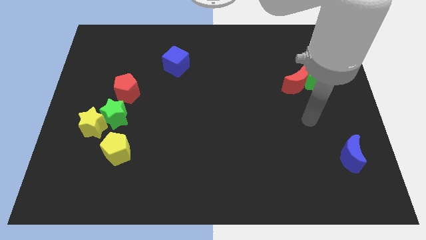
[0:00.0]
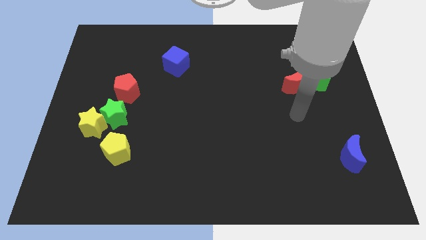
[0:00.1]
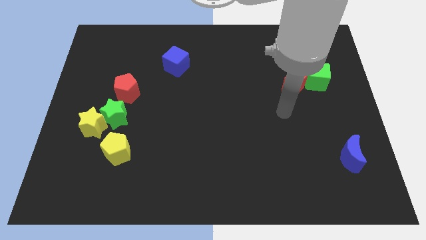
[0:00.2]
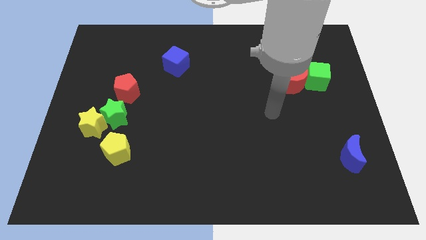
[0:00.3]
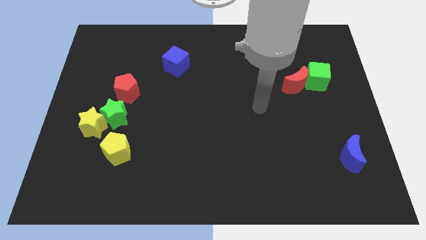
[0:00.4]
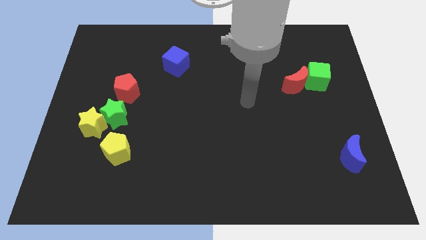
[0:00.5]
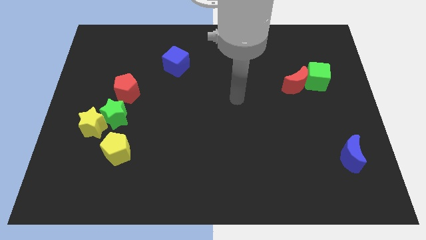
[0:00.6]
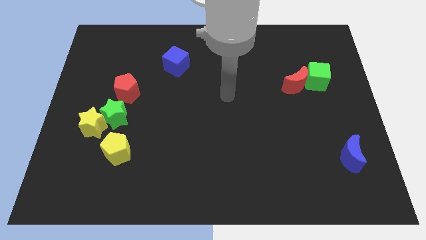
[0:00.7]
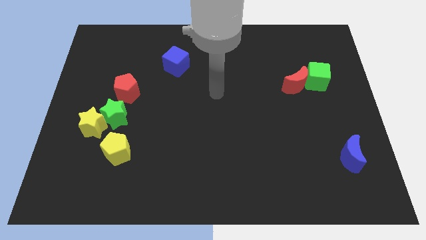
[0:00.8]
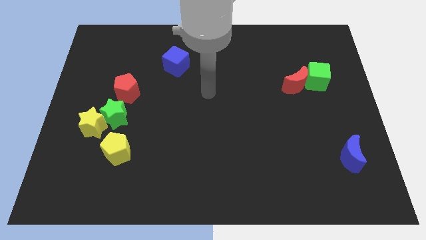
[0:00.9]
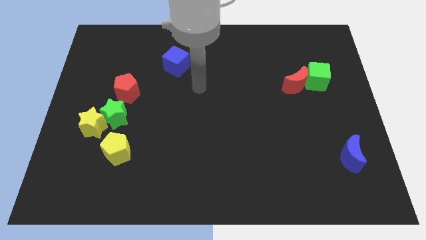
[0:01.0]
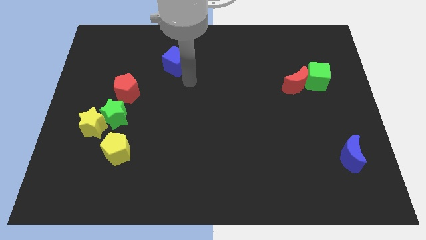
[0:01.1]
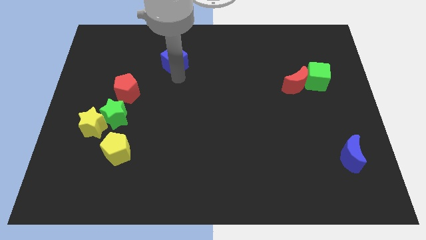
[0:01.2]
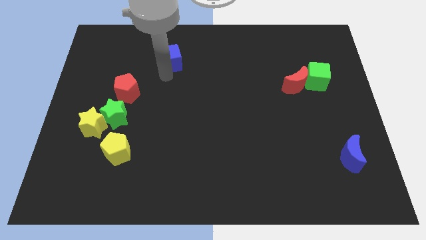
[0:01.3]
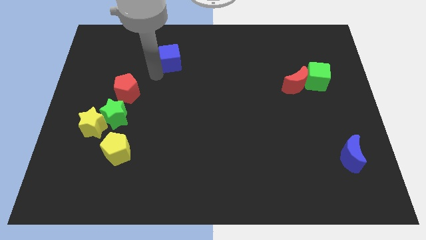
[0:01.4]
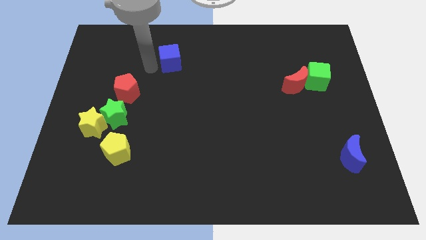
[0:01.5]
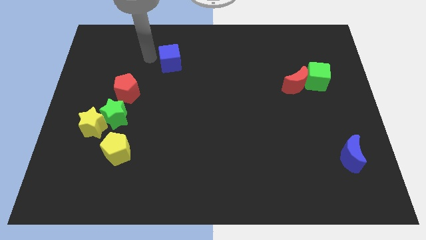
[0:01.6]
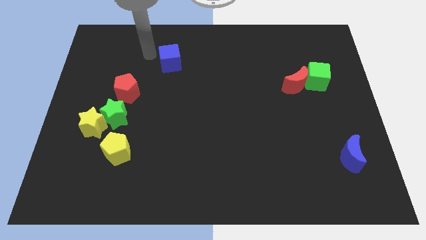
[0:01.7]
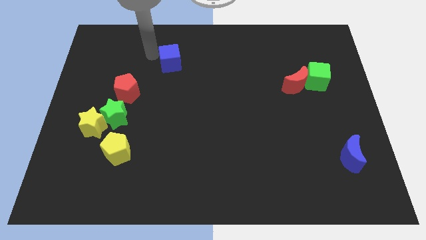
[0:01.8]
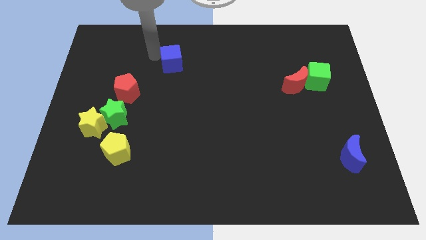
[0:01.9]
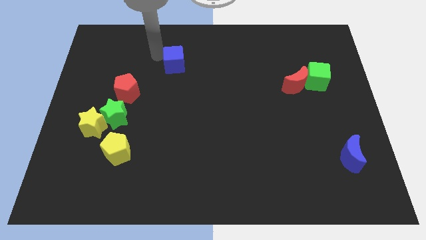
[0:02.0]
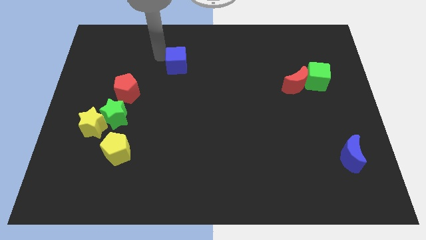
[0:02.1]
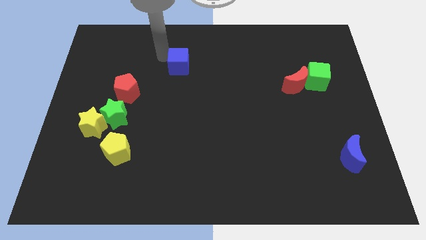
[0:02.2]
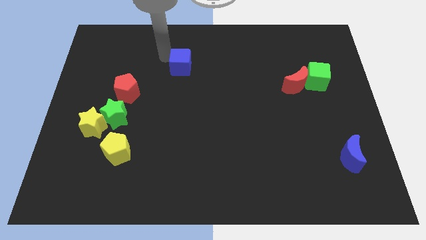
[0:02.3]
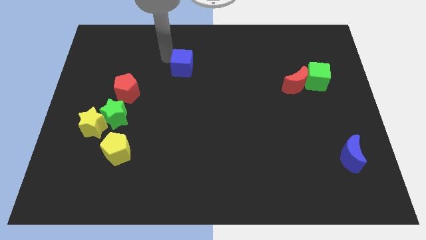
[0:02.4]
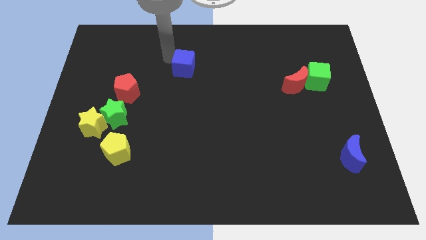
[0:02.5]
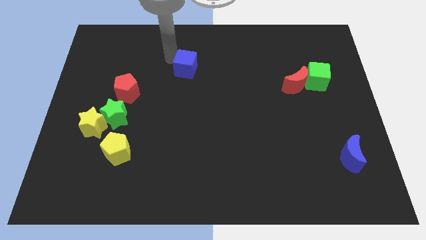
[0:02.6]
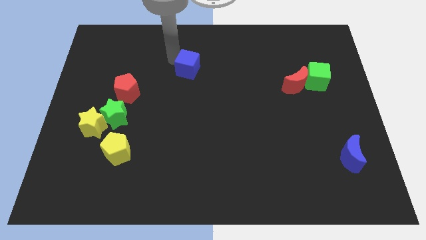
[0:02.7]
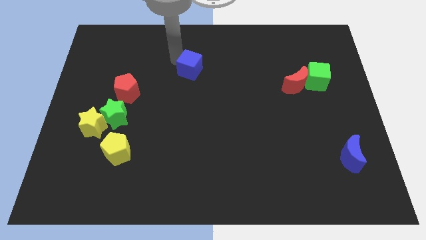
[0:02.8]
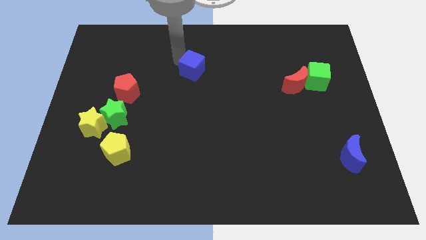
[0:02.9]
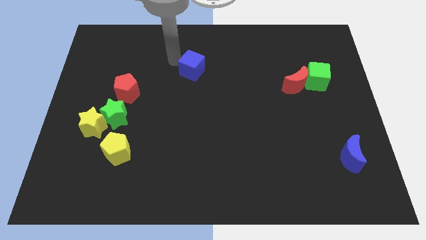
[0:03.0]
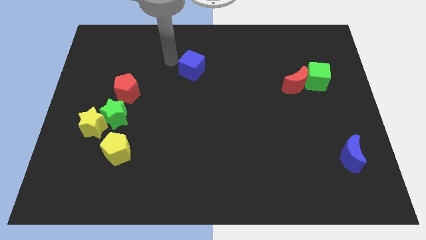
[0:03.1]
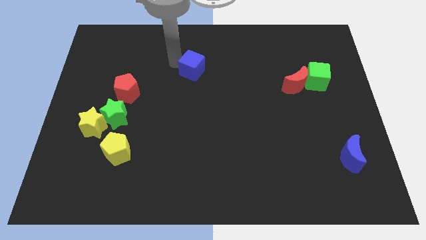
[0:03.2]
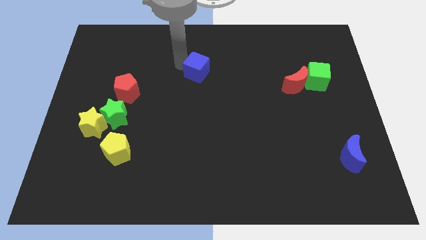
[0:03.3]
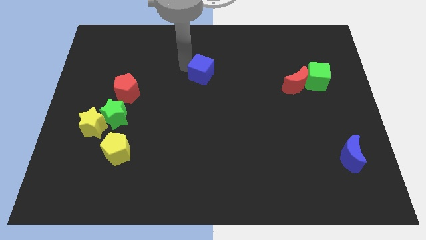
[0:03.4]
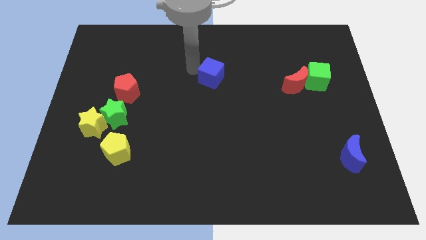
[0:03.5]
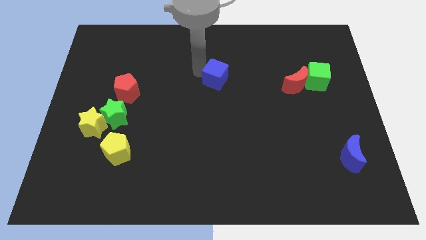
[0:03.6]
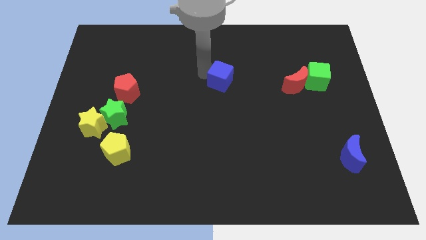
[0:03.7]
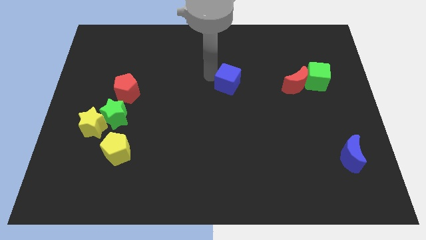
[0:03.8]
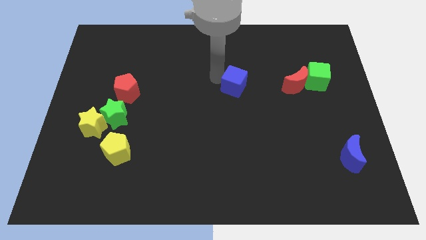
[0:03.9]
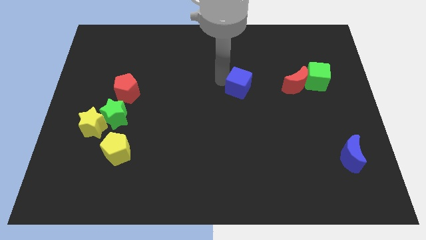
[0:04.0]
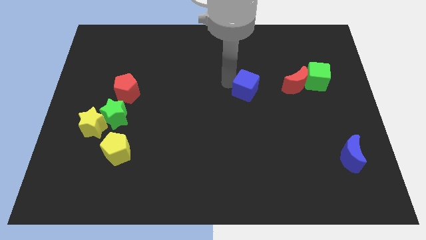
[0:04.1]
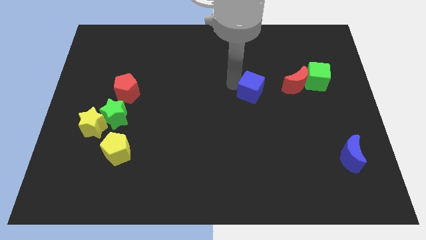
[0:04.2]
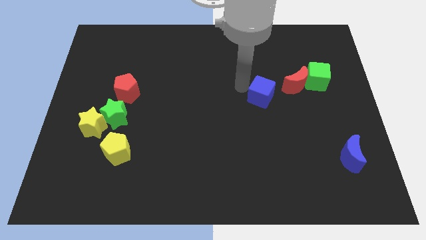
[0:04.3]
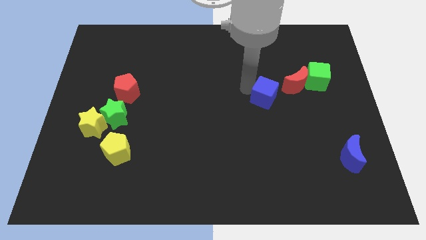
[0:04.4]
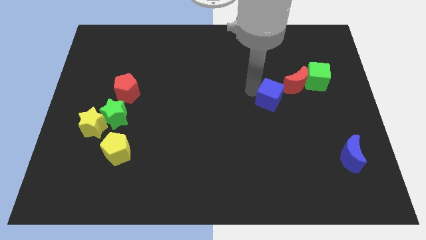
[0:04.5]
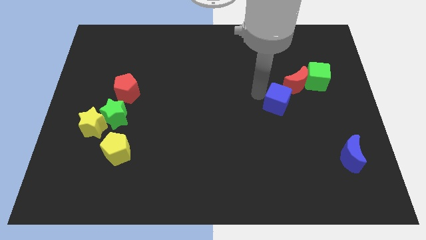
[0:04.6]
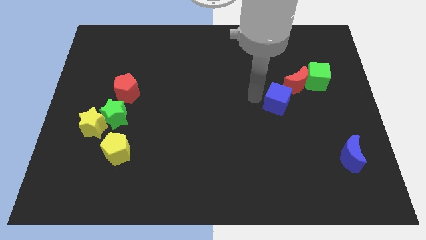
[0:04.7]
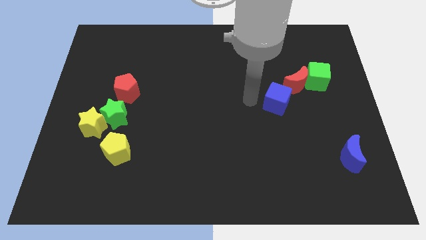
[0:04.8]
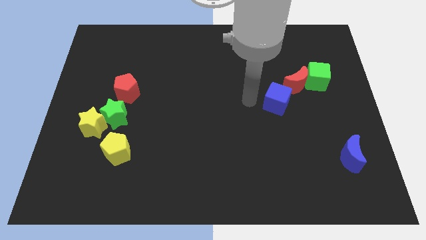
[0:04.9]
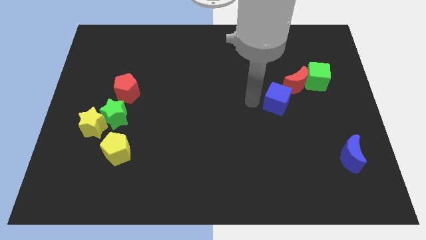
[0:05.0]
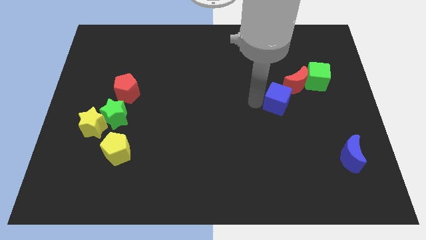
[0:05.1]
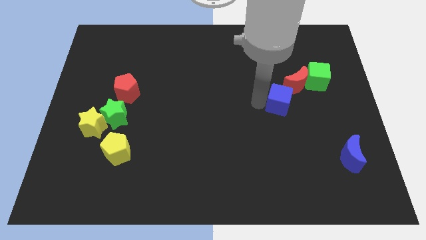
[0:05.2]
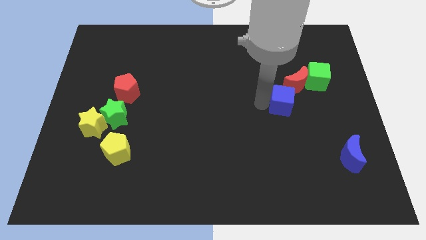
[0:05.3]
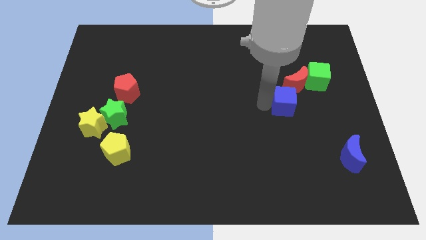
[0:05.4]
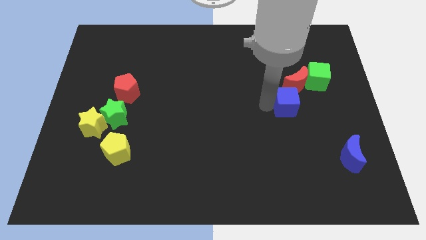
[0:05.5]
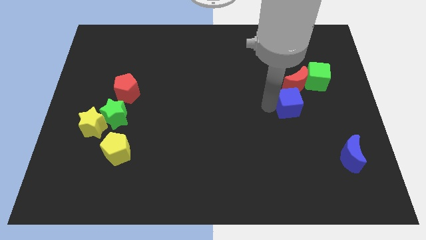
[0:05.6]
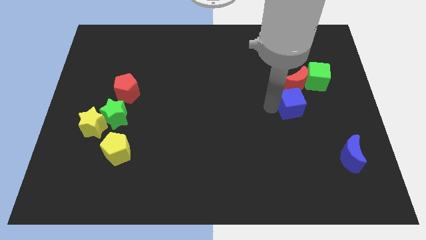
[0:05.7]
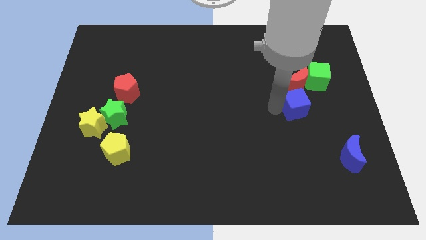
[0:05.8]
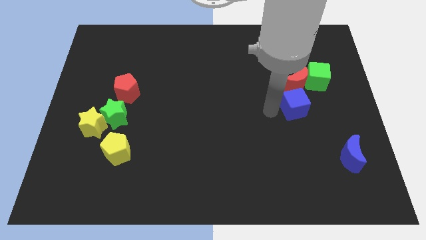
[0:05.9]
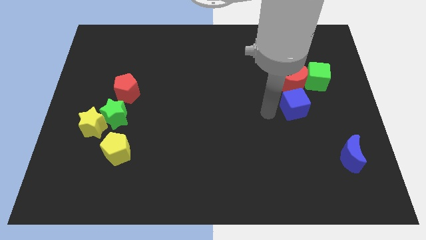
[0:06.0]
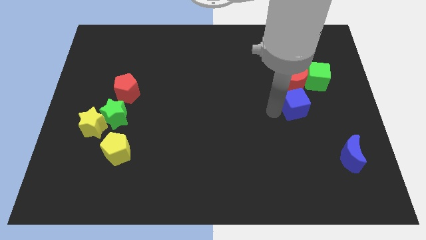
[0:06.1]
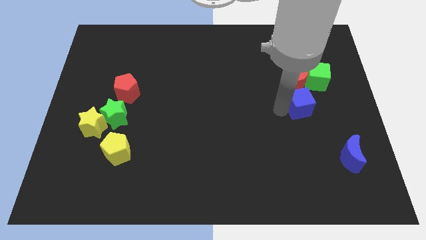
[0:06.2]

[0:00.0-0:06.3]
put the blue cube to the bottom right side of the red moon
